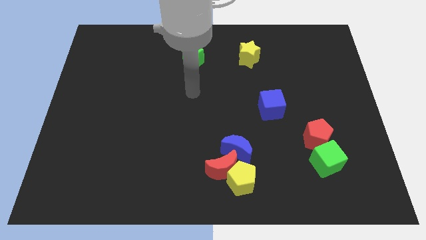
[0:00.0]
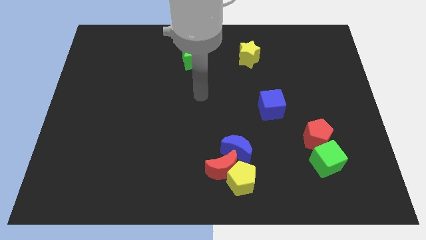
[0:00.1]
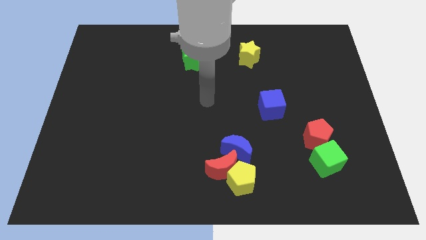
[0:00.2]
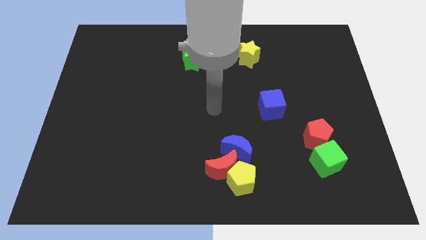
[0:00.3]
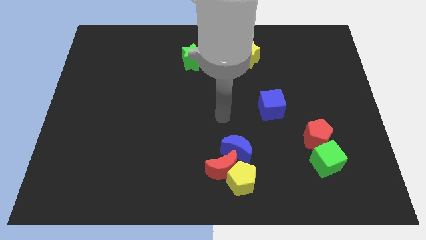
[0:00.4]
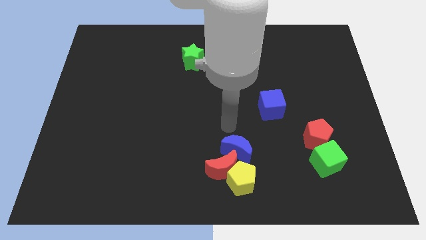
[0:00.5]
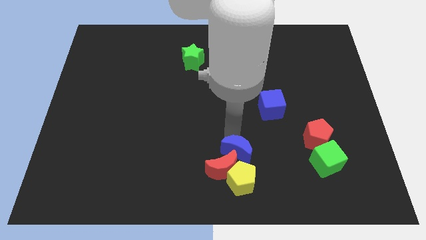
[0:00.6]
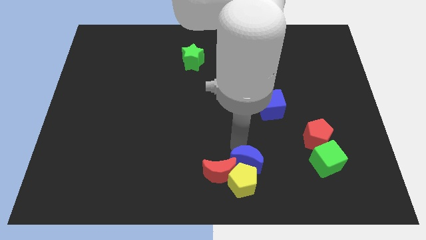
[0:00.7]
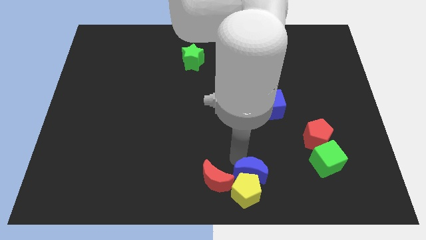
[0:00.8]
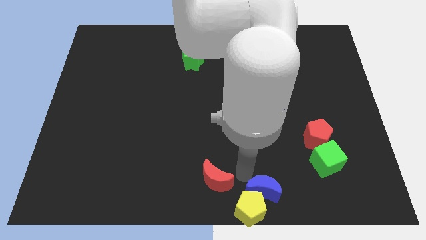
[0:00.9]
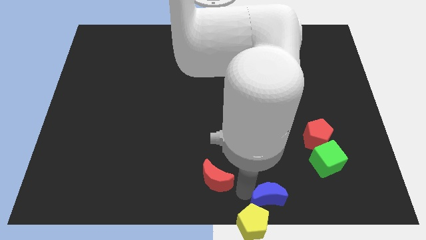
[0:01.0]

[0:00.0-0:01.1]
move the red moon away from the yellow pentagon and blue moon

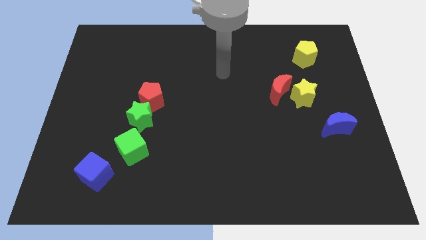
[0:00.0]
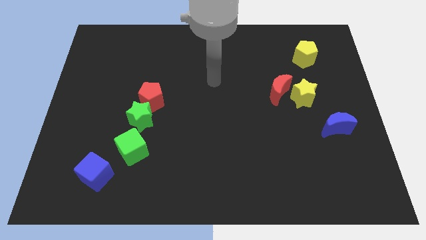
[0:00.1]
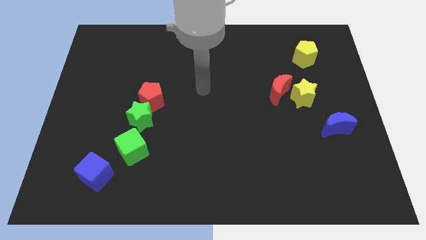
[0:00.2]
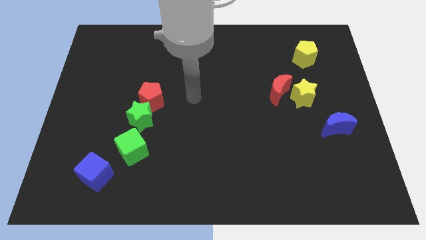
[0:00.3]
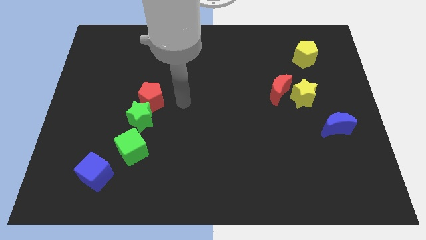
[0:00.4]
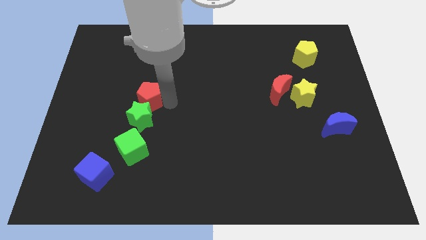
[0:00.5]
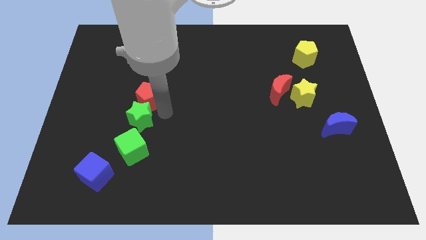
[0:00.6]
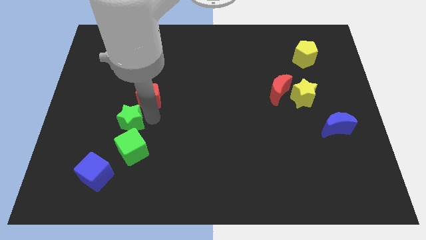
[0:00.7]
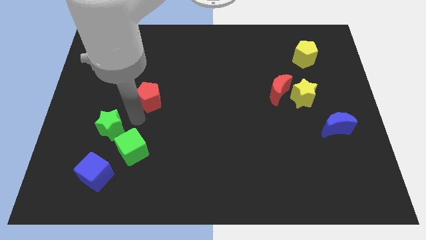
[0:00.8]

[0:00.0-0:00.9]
separate the red pentagon from the green star

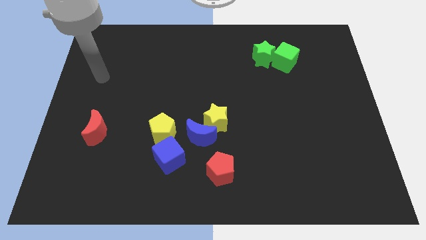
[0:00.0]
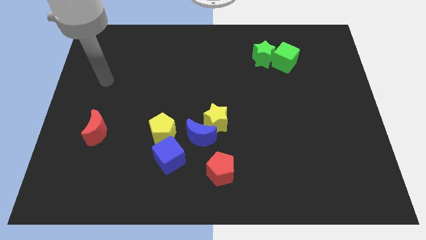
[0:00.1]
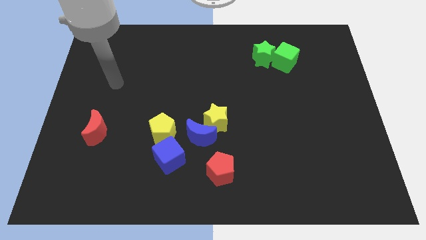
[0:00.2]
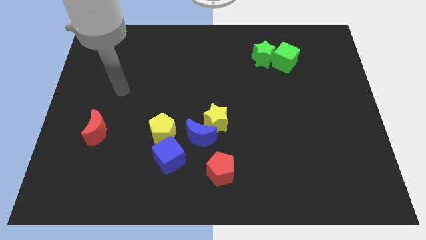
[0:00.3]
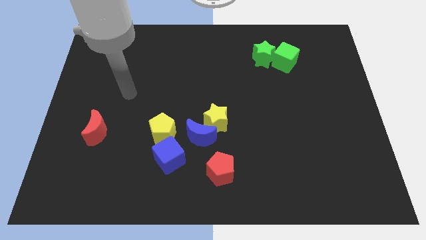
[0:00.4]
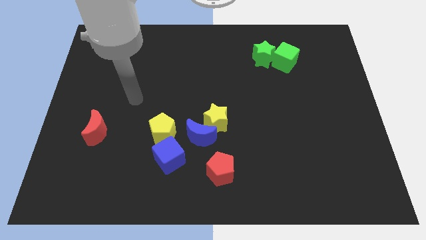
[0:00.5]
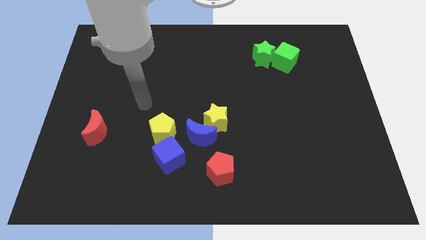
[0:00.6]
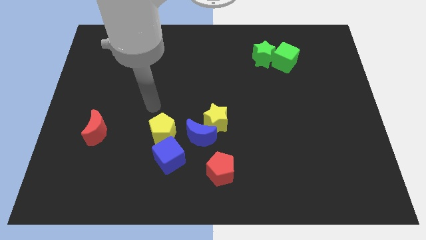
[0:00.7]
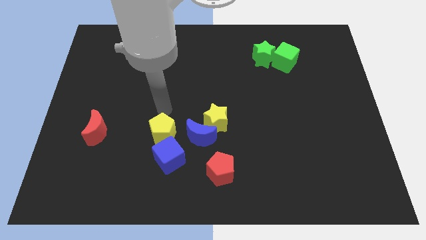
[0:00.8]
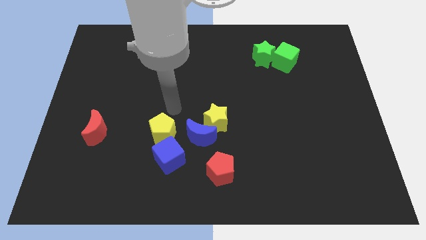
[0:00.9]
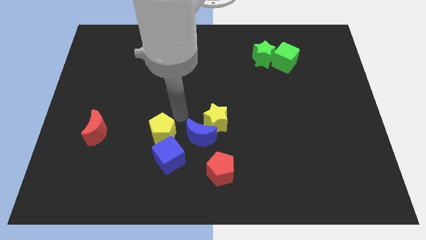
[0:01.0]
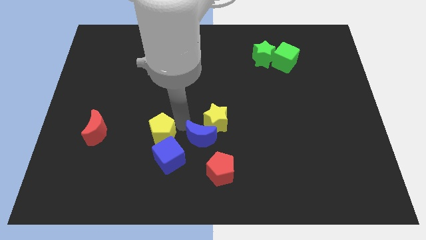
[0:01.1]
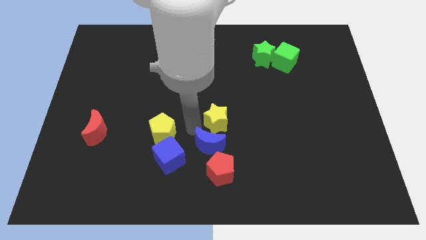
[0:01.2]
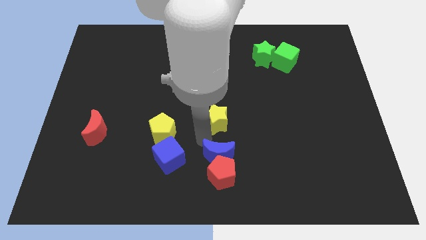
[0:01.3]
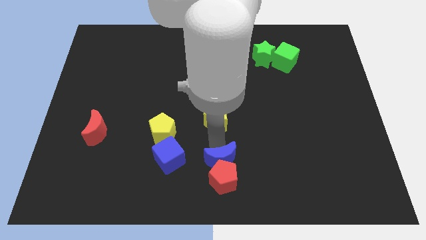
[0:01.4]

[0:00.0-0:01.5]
move the yellow star away from the blue moon

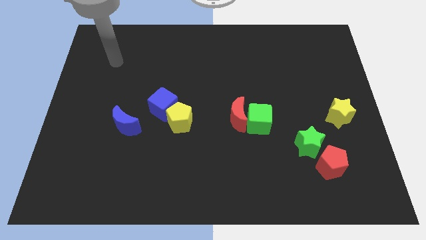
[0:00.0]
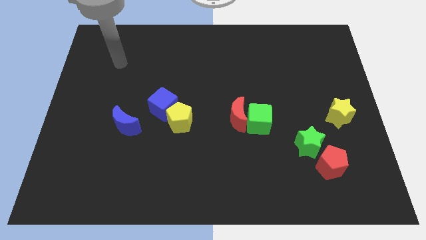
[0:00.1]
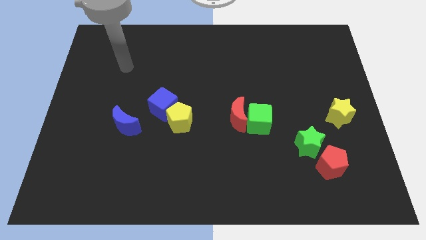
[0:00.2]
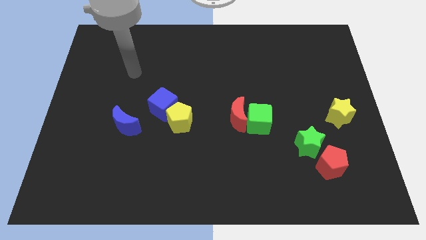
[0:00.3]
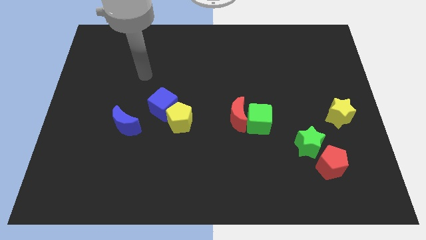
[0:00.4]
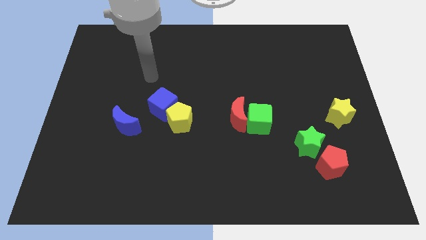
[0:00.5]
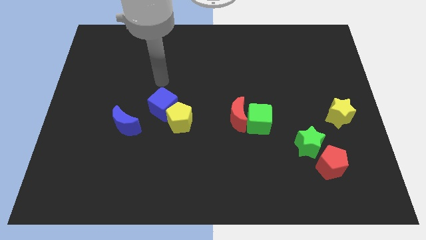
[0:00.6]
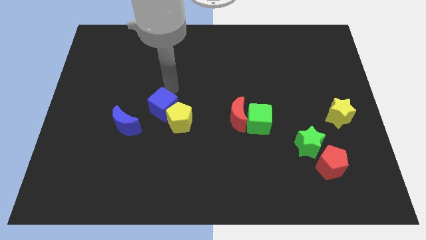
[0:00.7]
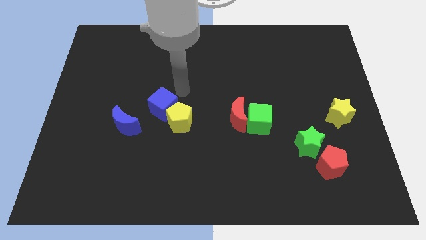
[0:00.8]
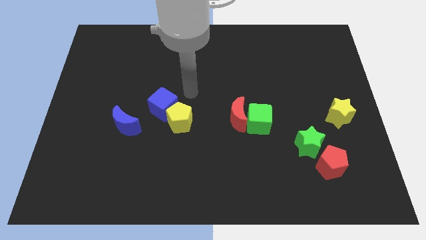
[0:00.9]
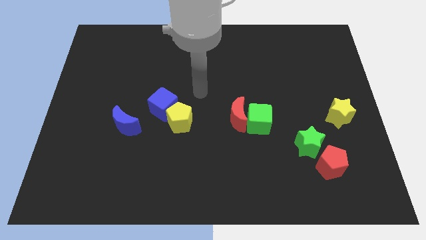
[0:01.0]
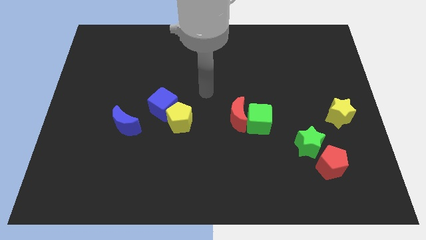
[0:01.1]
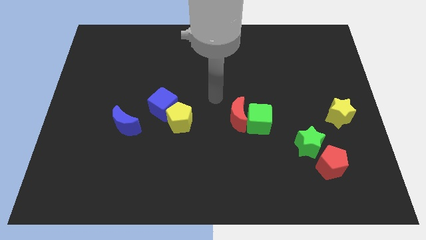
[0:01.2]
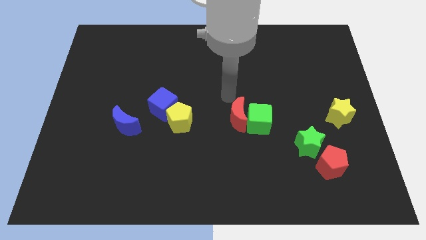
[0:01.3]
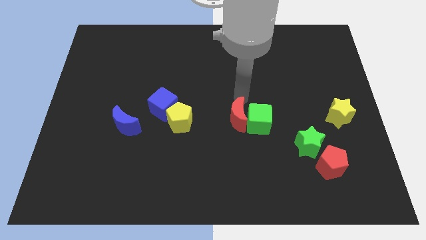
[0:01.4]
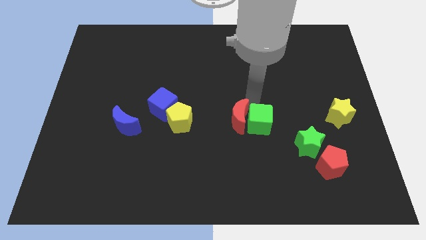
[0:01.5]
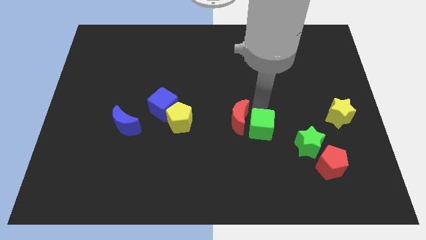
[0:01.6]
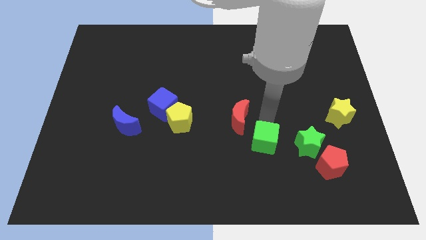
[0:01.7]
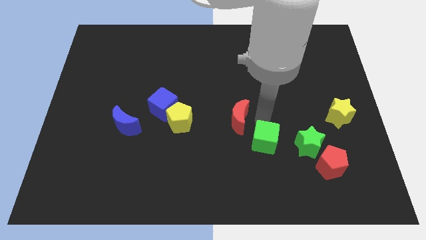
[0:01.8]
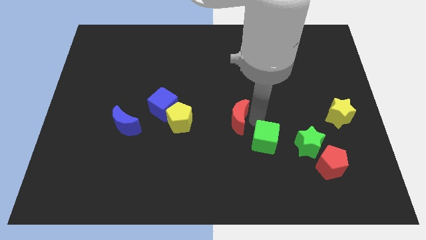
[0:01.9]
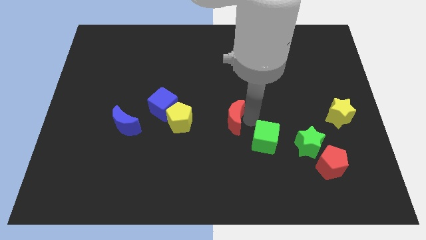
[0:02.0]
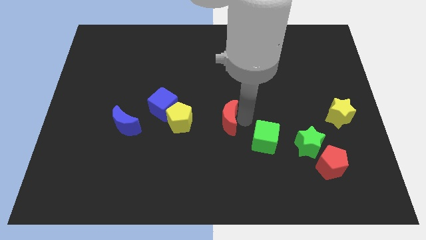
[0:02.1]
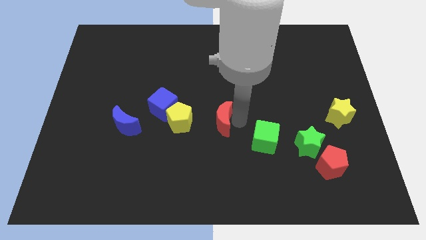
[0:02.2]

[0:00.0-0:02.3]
move the red moon away from the green cube

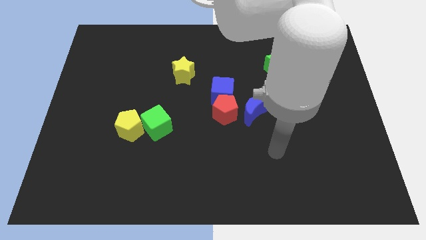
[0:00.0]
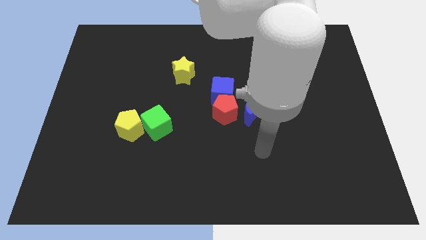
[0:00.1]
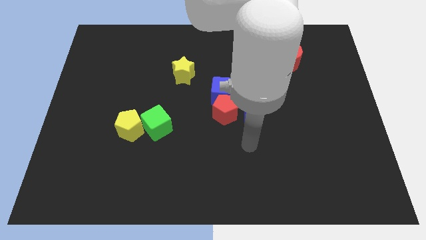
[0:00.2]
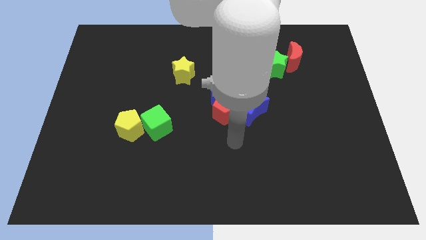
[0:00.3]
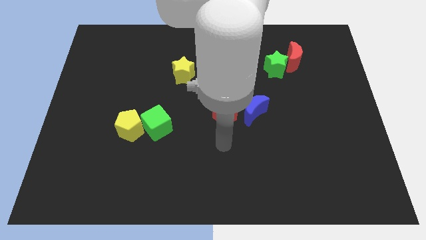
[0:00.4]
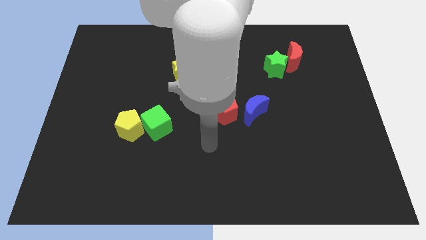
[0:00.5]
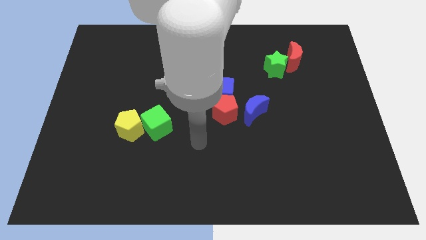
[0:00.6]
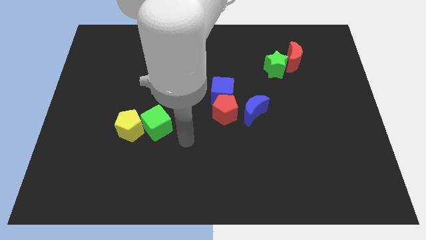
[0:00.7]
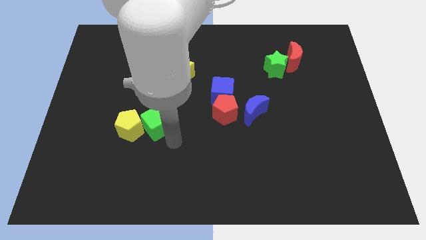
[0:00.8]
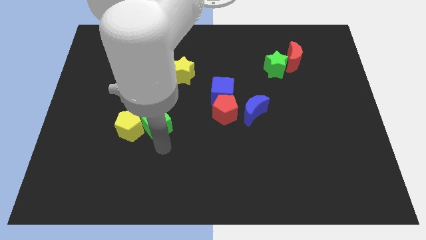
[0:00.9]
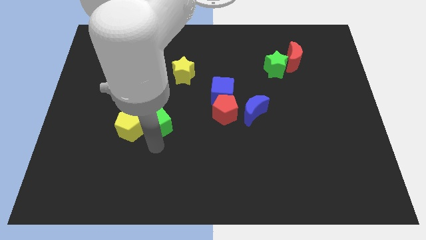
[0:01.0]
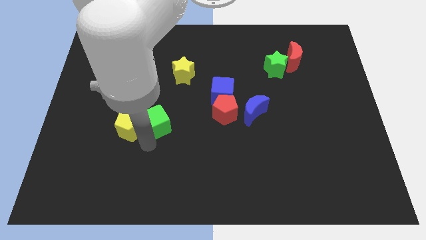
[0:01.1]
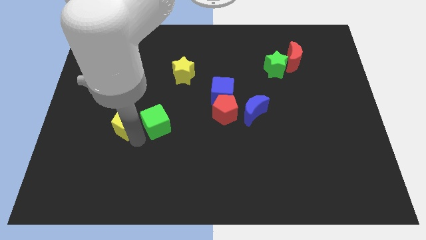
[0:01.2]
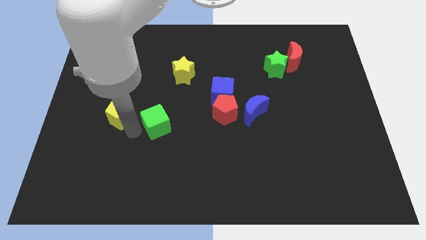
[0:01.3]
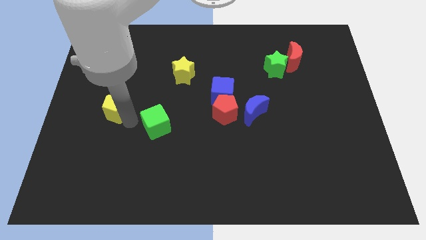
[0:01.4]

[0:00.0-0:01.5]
separate the green cube from the yellow pentagon

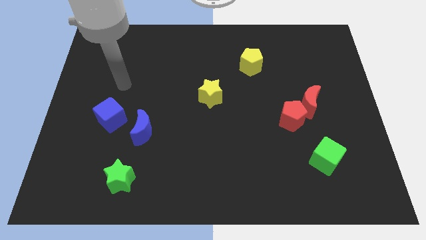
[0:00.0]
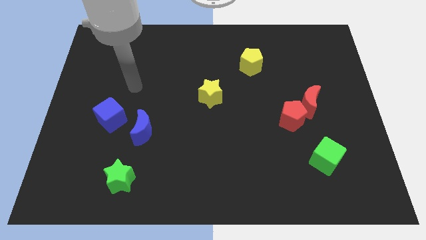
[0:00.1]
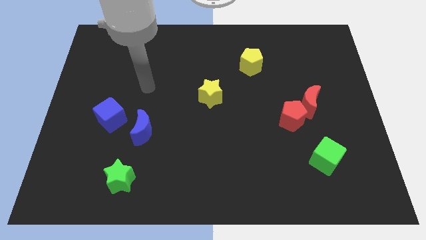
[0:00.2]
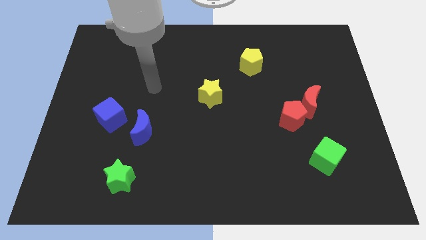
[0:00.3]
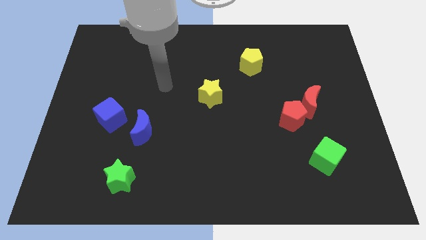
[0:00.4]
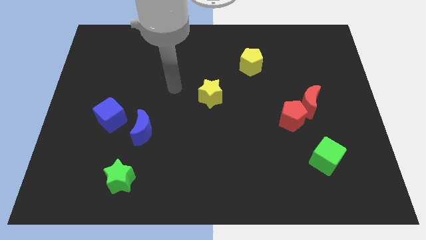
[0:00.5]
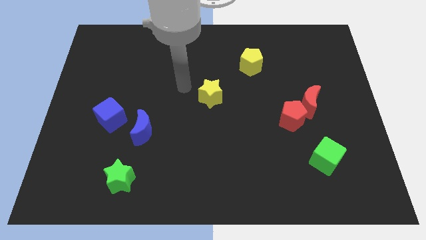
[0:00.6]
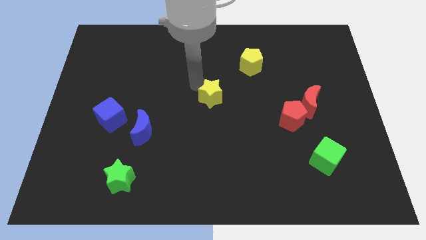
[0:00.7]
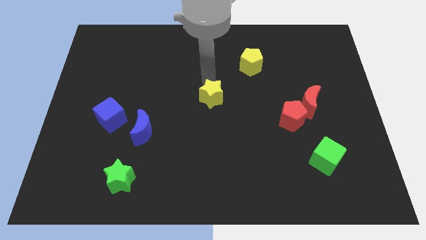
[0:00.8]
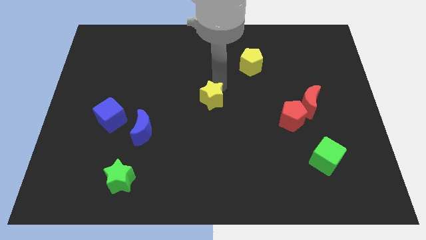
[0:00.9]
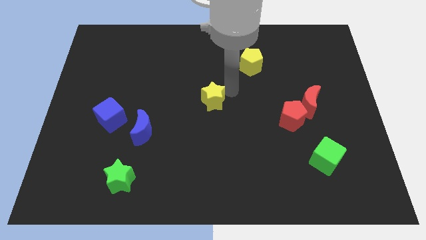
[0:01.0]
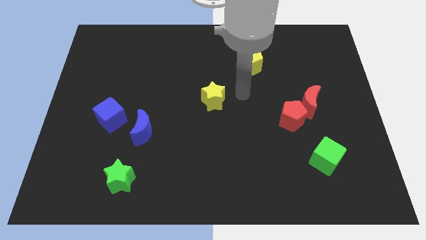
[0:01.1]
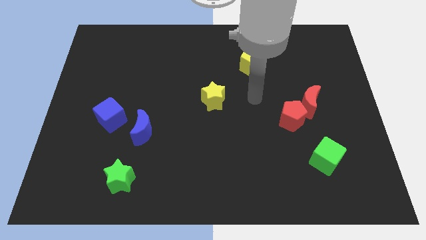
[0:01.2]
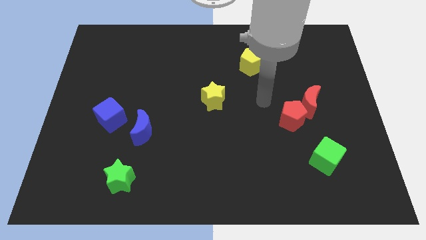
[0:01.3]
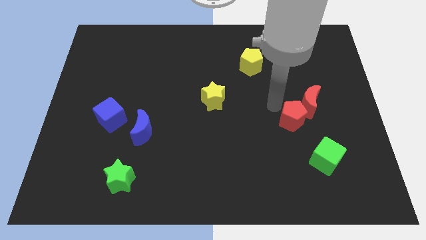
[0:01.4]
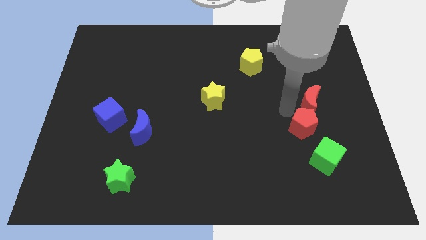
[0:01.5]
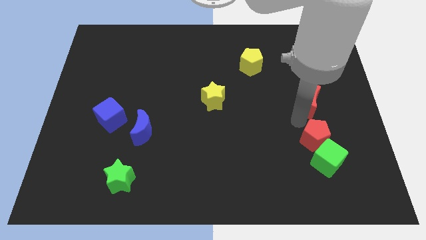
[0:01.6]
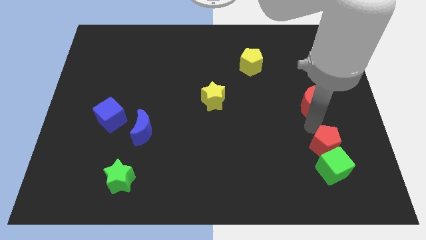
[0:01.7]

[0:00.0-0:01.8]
move the red moon away from the red pentagon

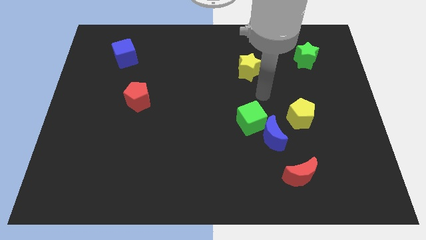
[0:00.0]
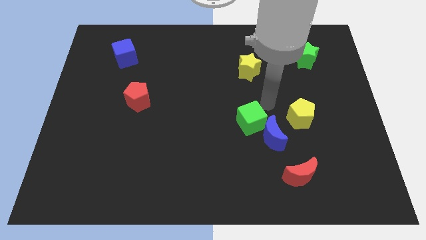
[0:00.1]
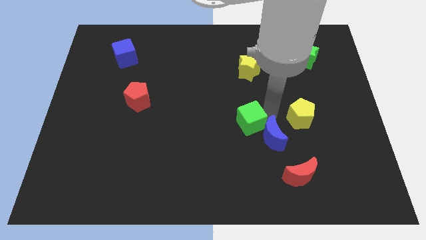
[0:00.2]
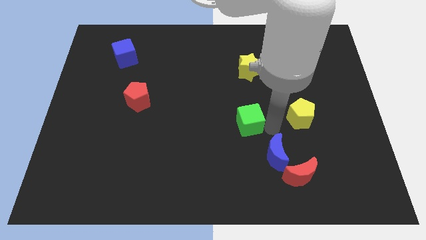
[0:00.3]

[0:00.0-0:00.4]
separate the green cube from the blue moon
